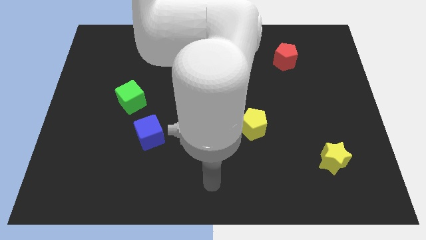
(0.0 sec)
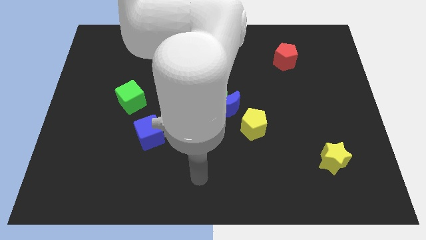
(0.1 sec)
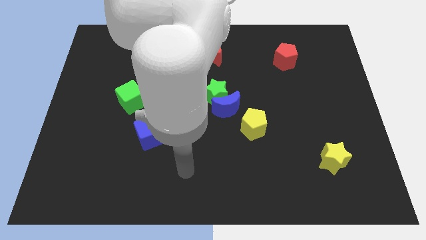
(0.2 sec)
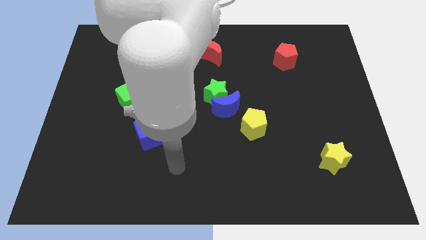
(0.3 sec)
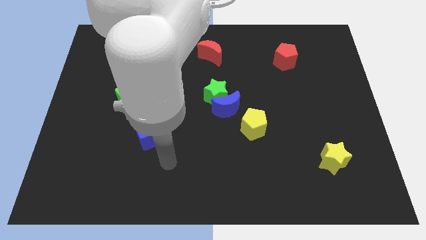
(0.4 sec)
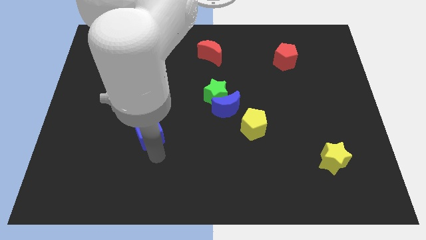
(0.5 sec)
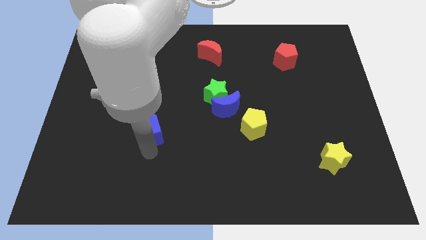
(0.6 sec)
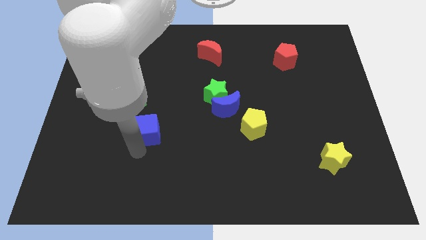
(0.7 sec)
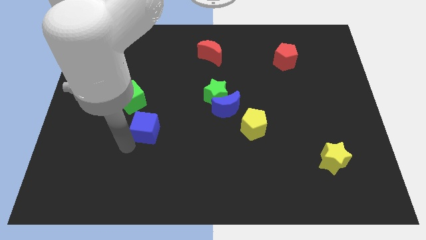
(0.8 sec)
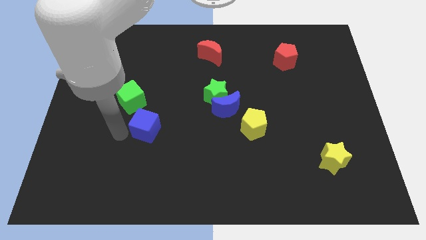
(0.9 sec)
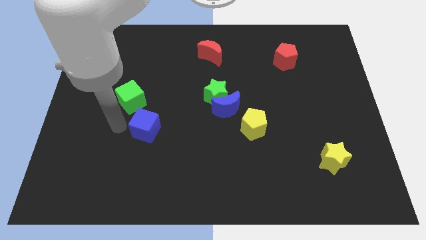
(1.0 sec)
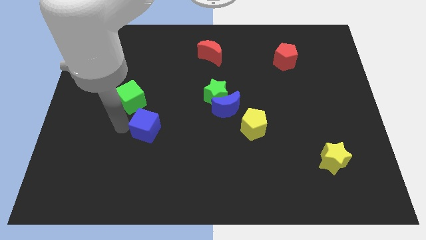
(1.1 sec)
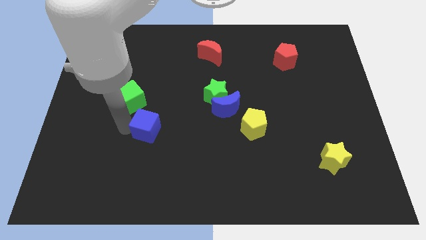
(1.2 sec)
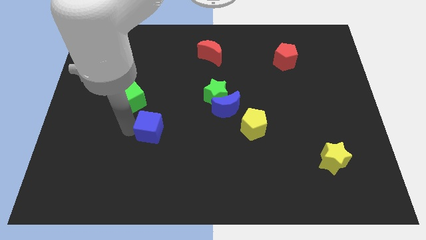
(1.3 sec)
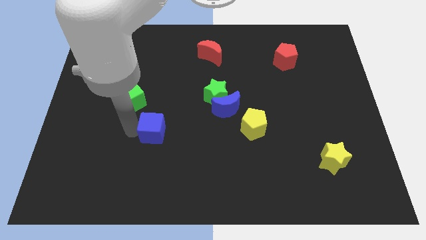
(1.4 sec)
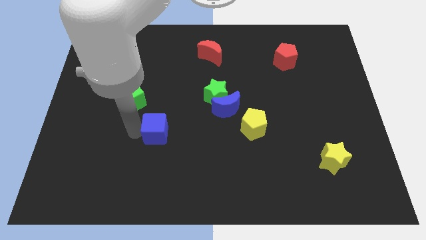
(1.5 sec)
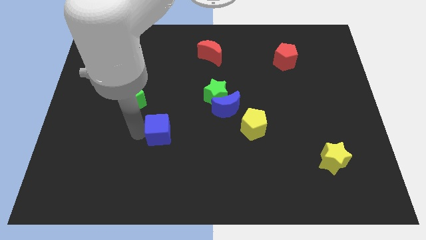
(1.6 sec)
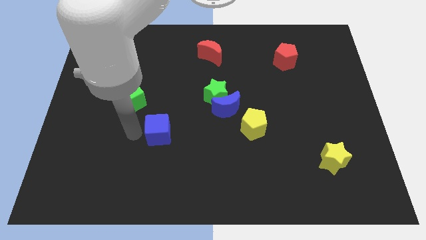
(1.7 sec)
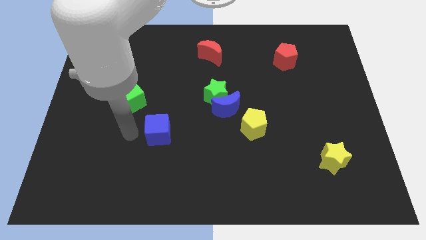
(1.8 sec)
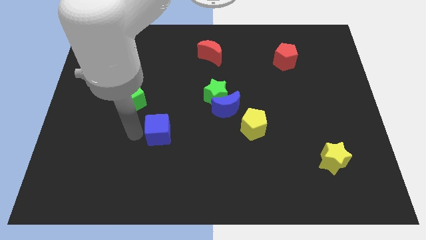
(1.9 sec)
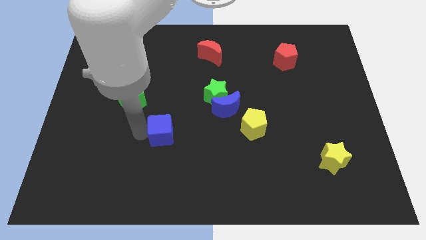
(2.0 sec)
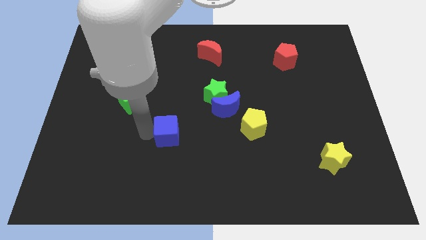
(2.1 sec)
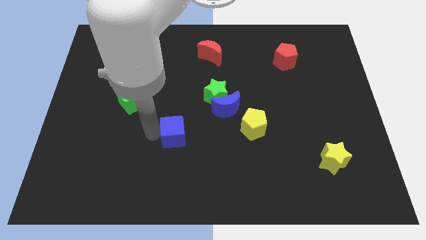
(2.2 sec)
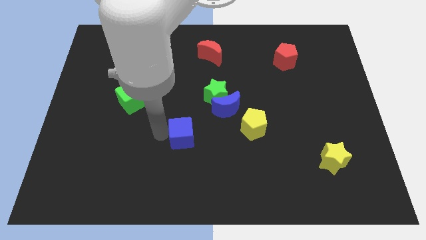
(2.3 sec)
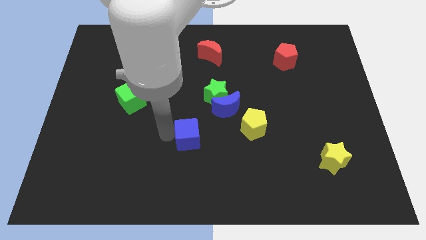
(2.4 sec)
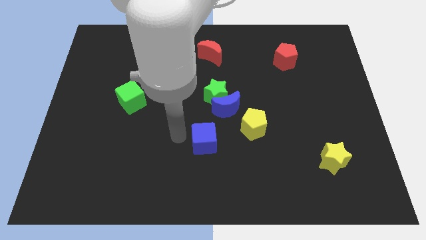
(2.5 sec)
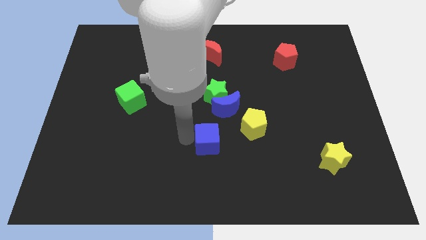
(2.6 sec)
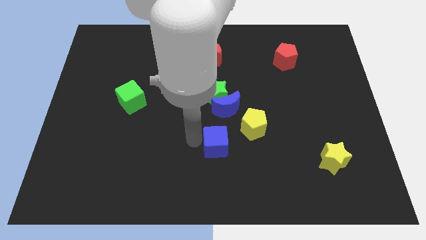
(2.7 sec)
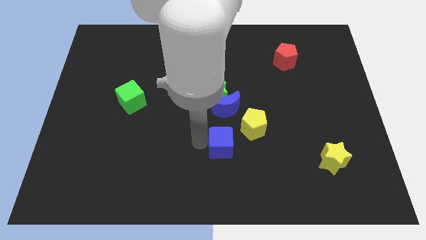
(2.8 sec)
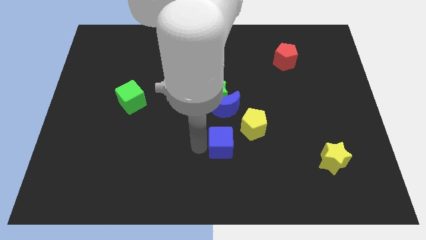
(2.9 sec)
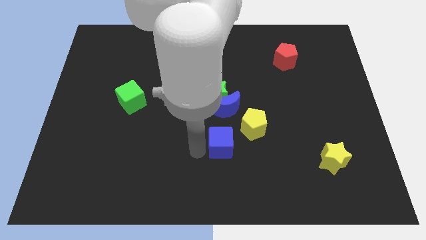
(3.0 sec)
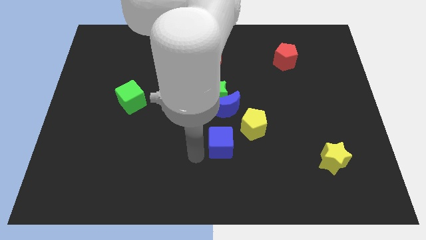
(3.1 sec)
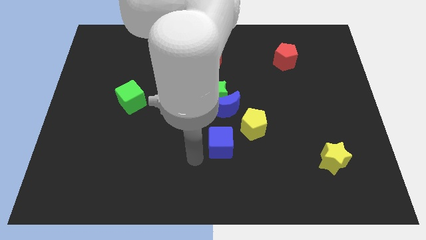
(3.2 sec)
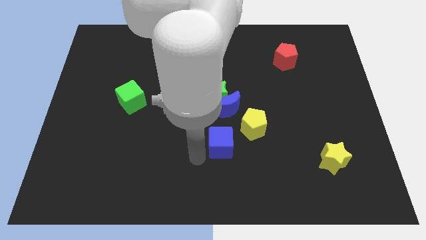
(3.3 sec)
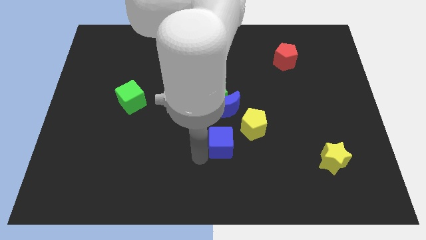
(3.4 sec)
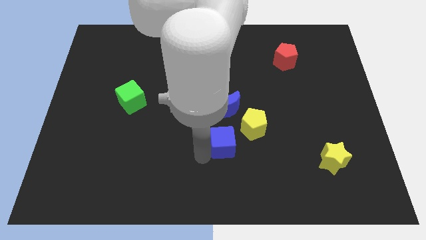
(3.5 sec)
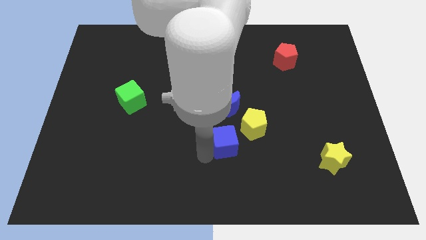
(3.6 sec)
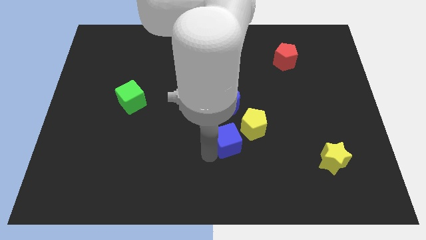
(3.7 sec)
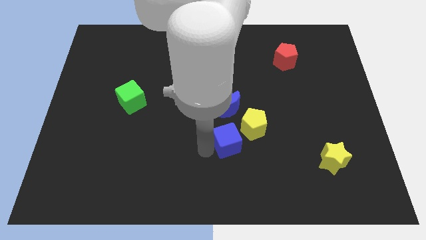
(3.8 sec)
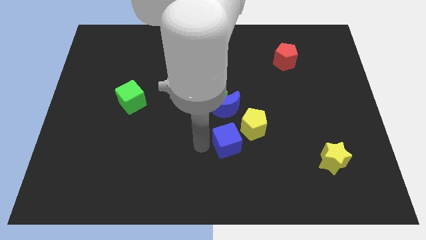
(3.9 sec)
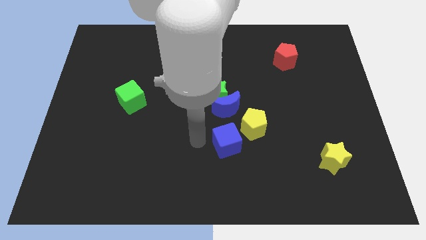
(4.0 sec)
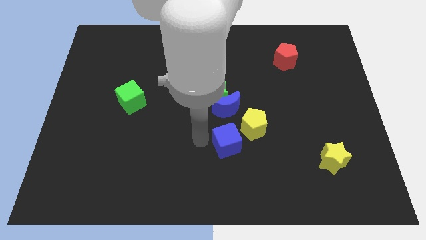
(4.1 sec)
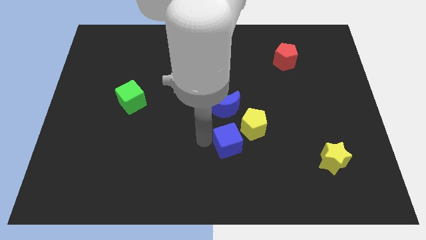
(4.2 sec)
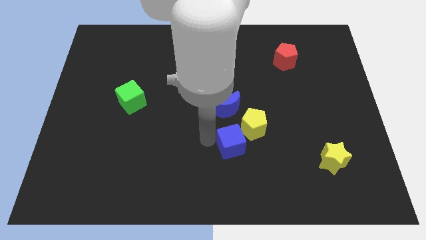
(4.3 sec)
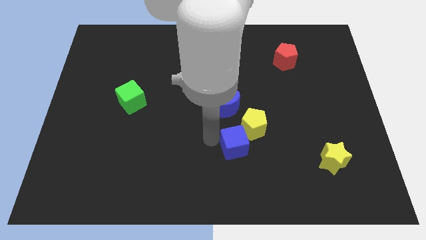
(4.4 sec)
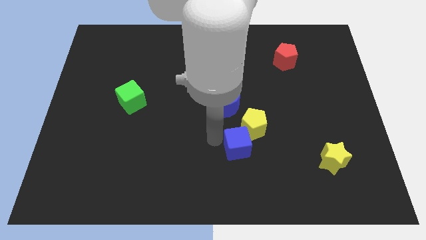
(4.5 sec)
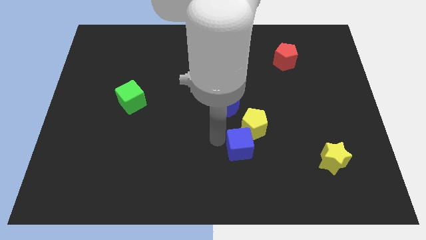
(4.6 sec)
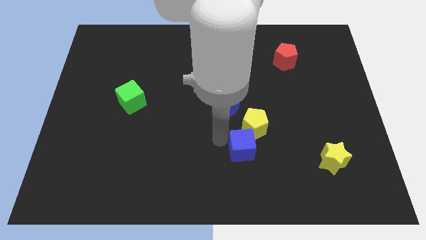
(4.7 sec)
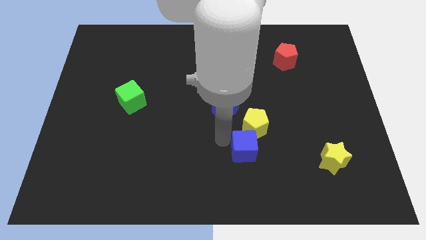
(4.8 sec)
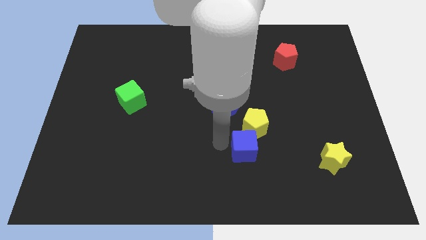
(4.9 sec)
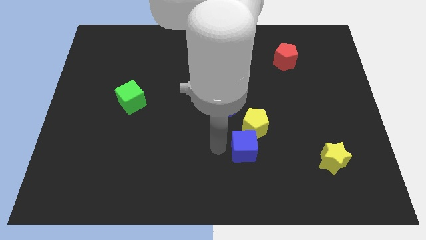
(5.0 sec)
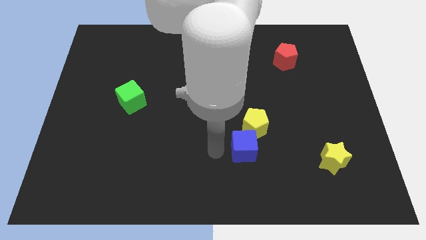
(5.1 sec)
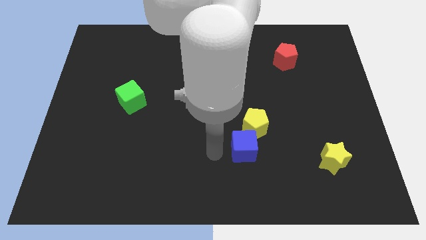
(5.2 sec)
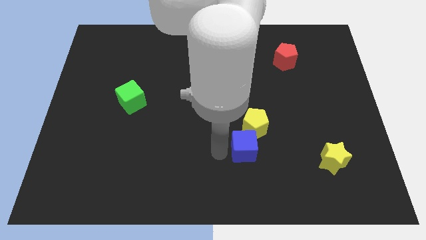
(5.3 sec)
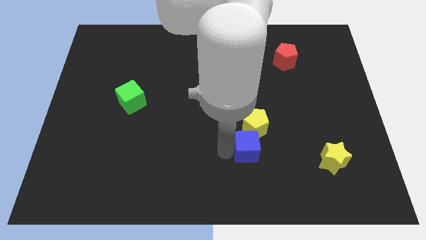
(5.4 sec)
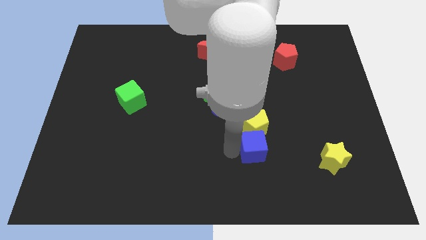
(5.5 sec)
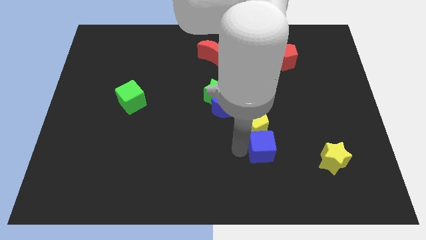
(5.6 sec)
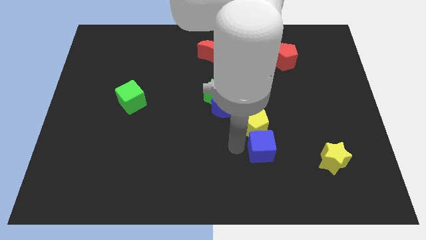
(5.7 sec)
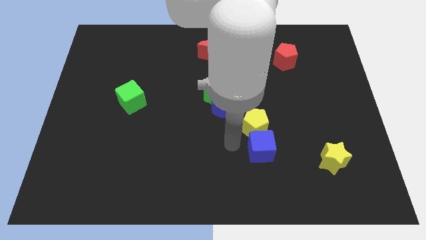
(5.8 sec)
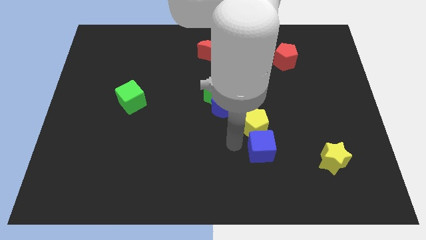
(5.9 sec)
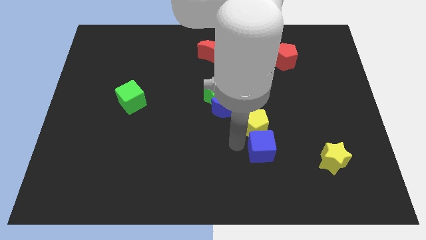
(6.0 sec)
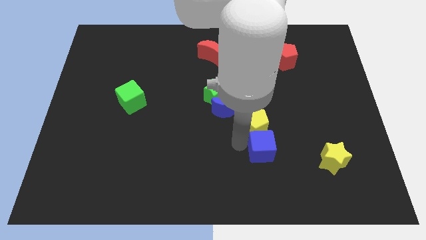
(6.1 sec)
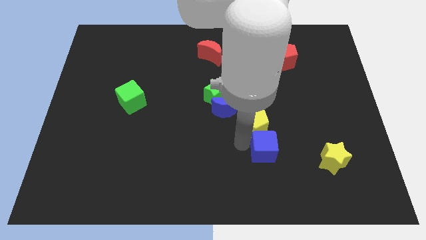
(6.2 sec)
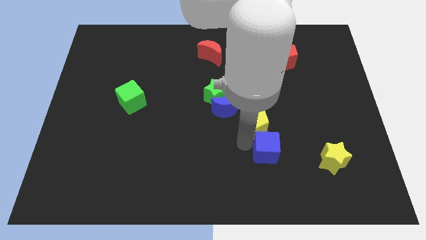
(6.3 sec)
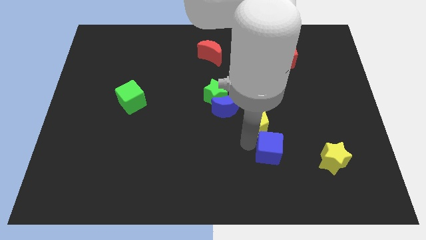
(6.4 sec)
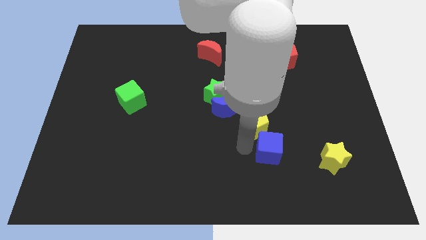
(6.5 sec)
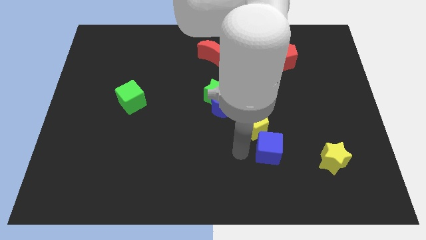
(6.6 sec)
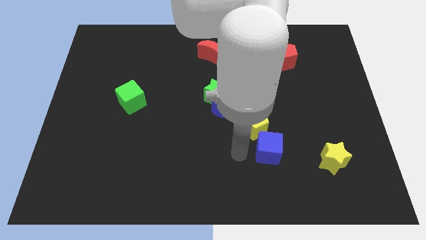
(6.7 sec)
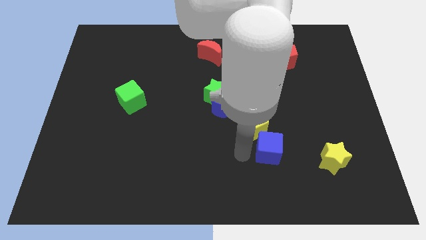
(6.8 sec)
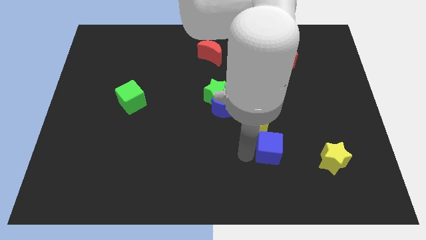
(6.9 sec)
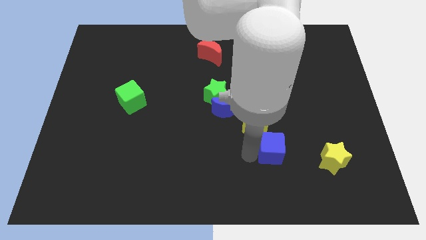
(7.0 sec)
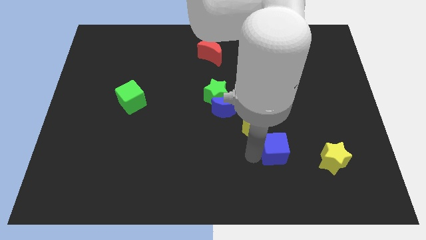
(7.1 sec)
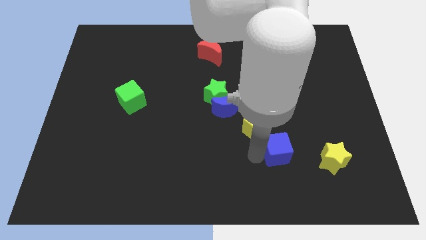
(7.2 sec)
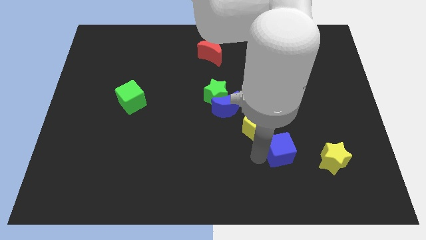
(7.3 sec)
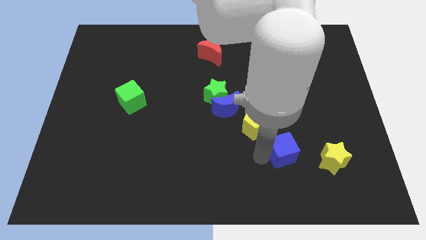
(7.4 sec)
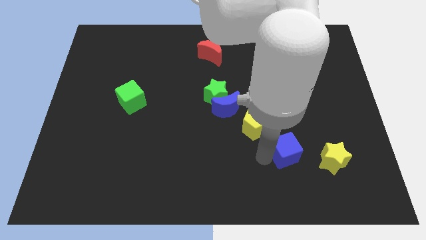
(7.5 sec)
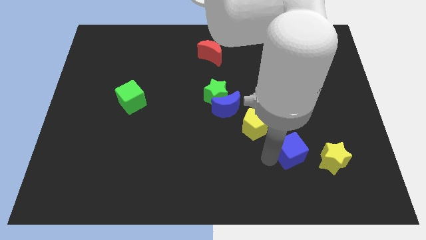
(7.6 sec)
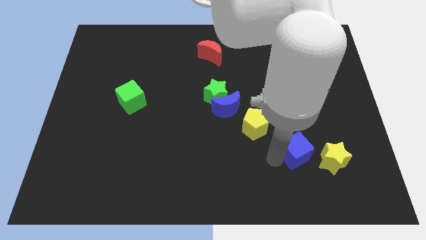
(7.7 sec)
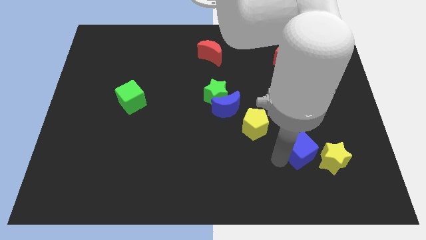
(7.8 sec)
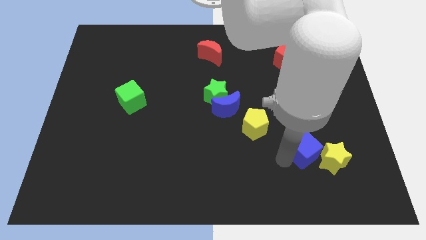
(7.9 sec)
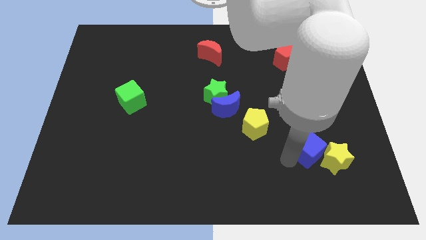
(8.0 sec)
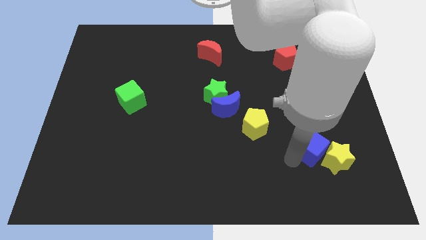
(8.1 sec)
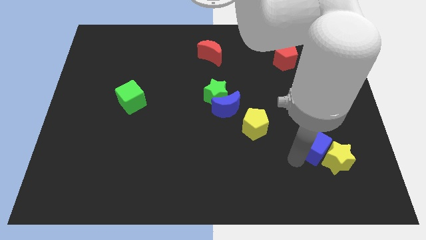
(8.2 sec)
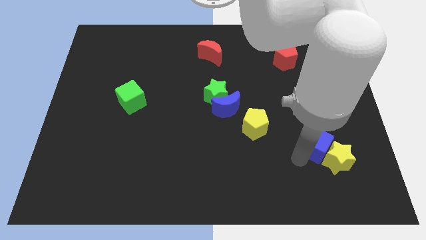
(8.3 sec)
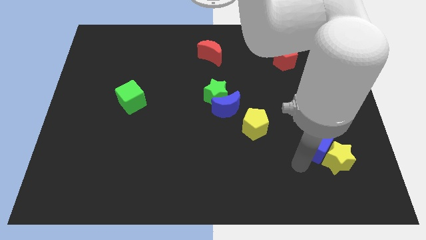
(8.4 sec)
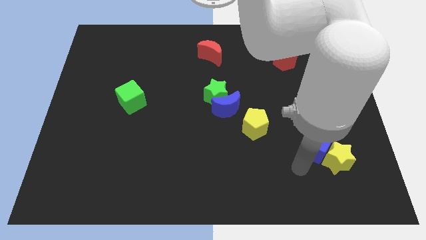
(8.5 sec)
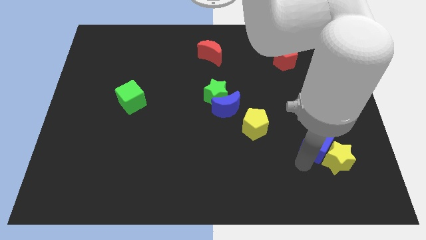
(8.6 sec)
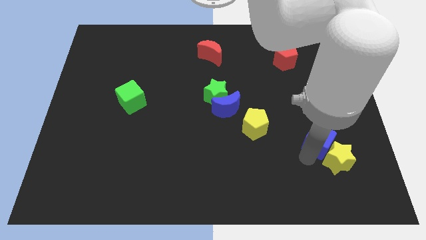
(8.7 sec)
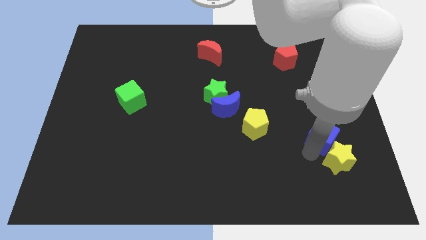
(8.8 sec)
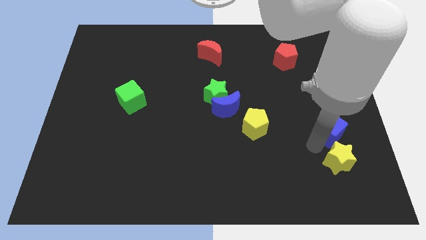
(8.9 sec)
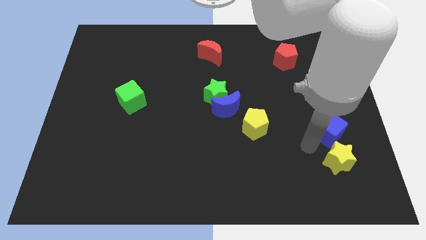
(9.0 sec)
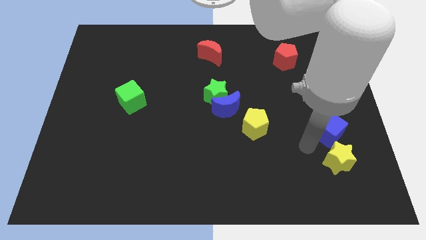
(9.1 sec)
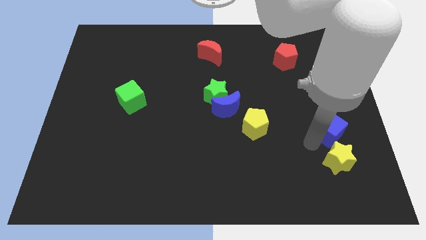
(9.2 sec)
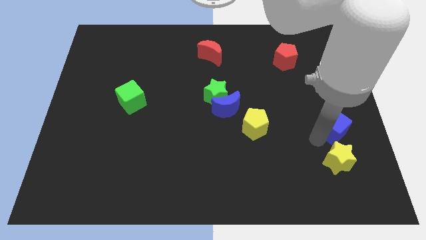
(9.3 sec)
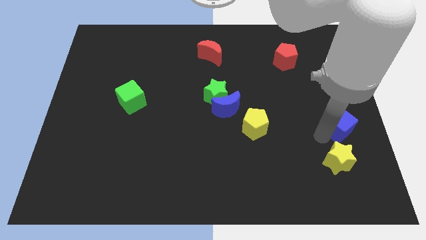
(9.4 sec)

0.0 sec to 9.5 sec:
put the blue cube to the right side of the board
